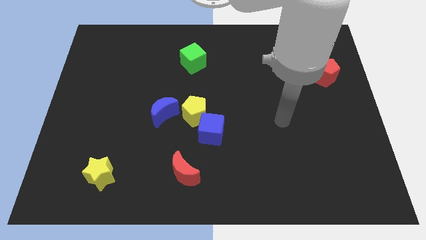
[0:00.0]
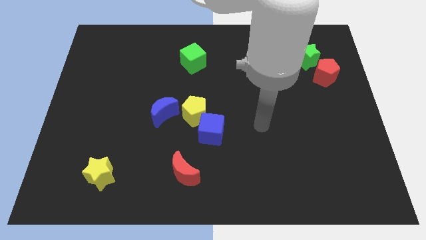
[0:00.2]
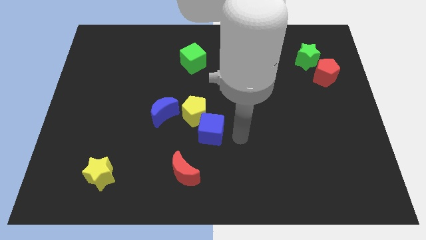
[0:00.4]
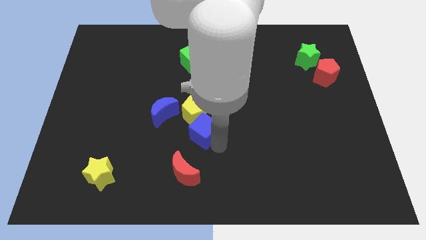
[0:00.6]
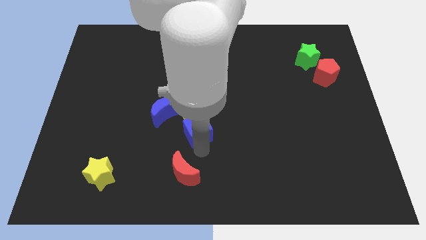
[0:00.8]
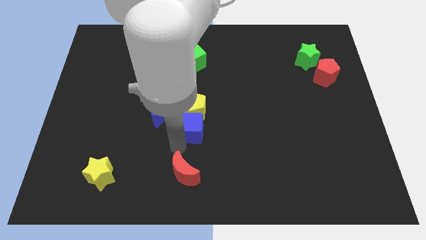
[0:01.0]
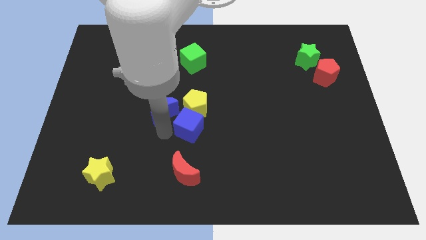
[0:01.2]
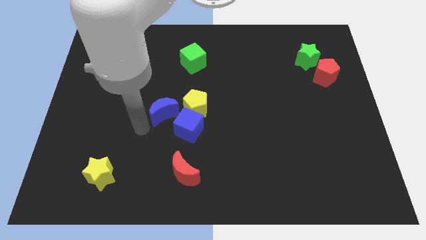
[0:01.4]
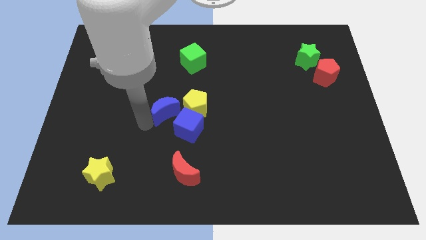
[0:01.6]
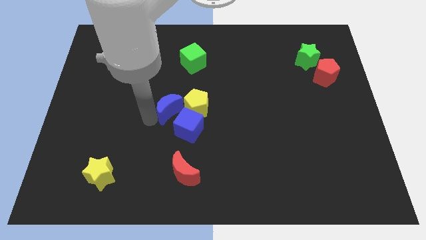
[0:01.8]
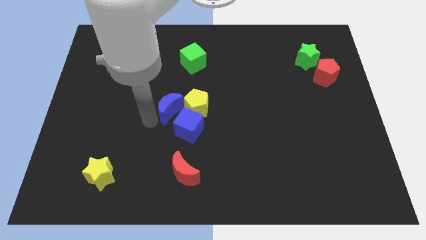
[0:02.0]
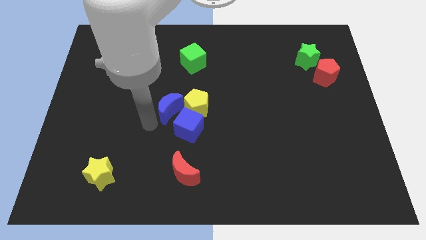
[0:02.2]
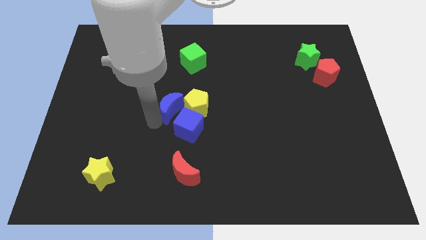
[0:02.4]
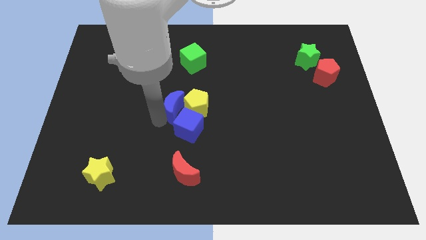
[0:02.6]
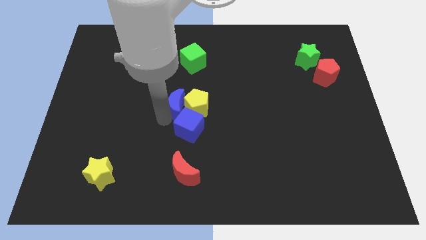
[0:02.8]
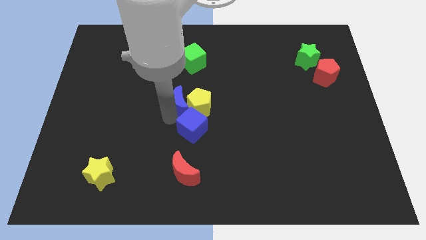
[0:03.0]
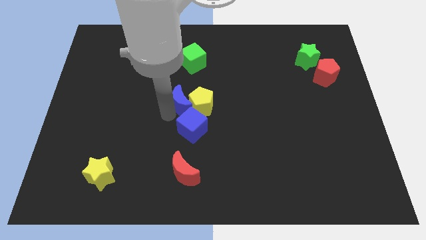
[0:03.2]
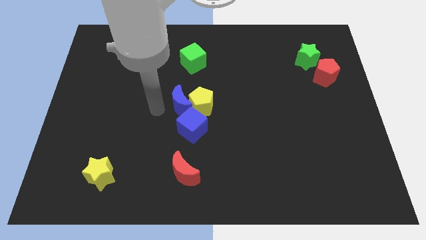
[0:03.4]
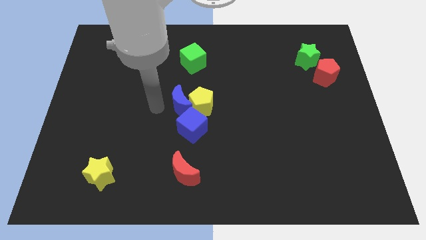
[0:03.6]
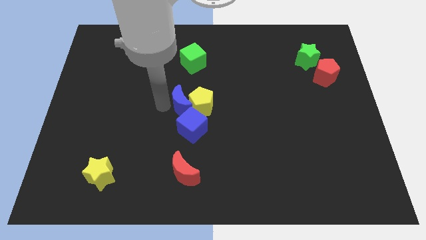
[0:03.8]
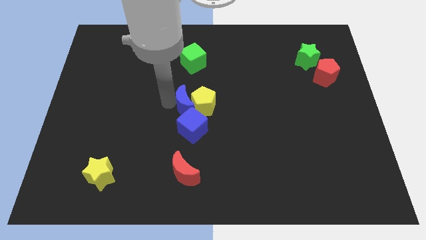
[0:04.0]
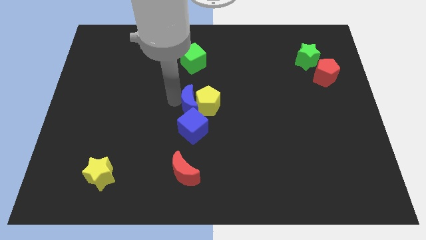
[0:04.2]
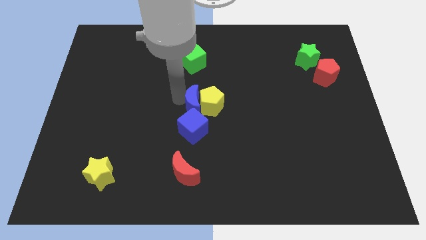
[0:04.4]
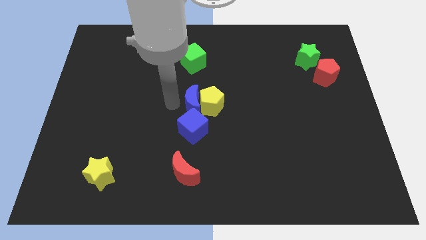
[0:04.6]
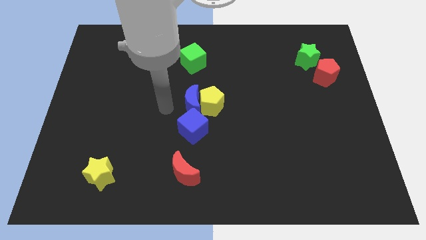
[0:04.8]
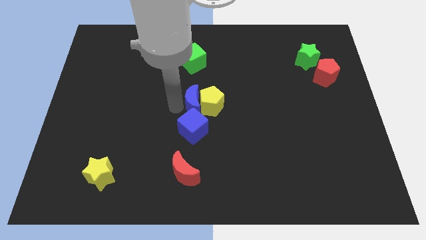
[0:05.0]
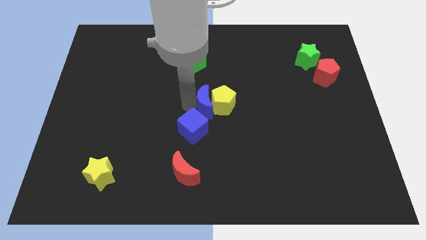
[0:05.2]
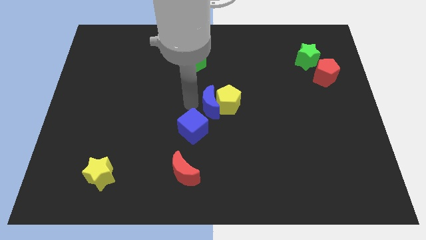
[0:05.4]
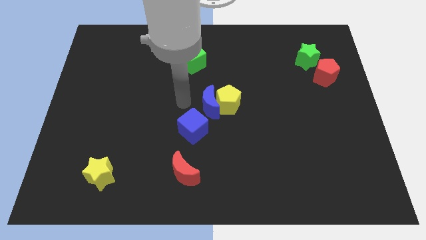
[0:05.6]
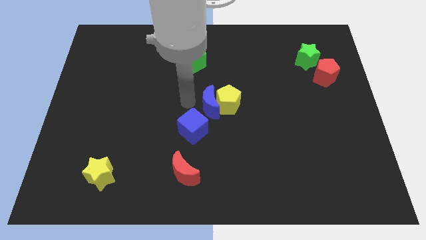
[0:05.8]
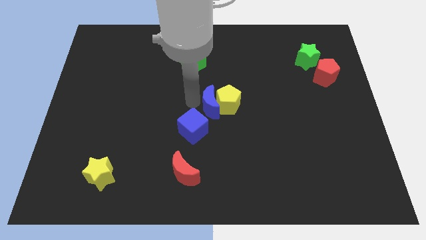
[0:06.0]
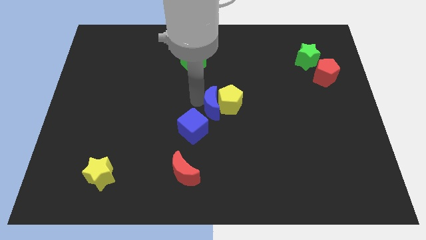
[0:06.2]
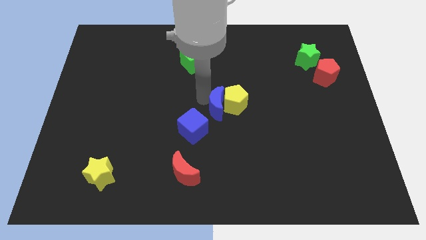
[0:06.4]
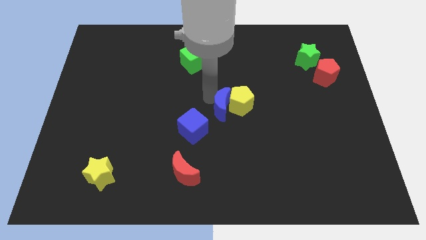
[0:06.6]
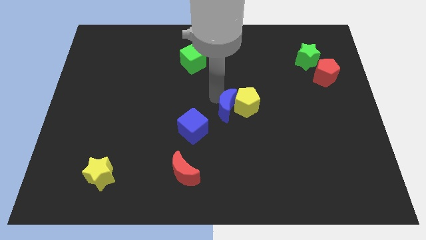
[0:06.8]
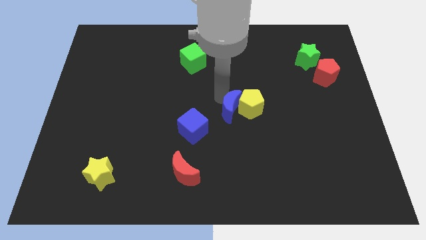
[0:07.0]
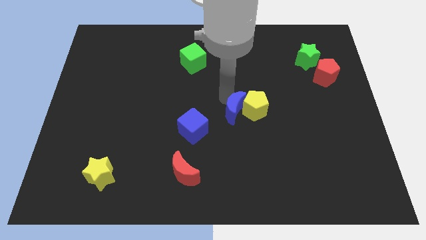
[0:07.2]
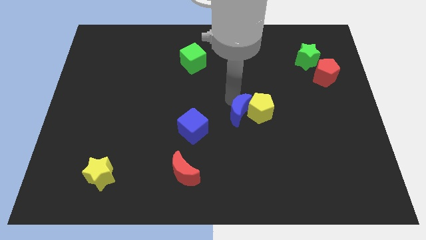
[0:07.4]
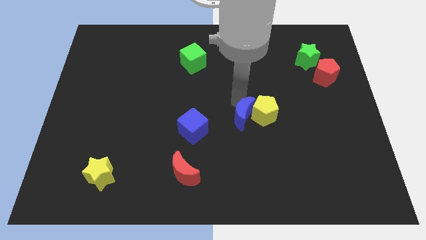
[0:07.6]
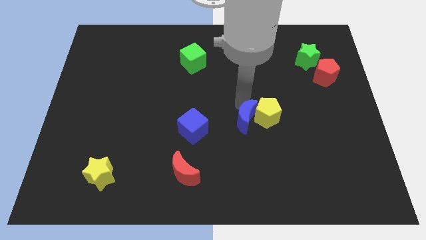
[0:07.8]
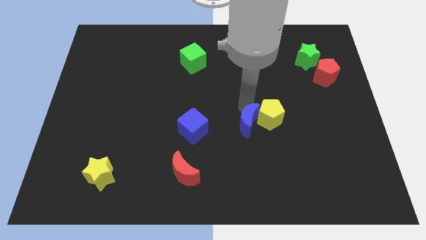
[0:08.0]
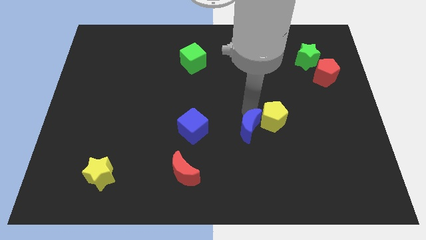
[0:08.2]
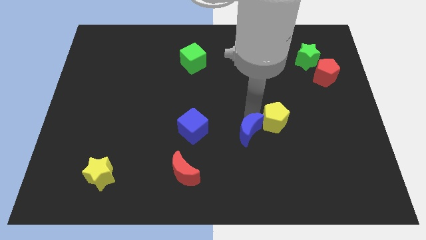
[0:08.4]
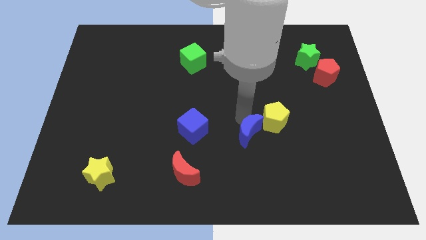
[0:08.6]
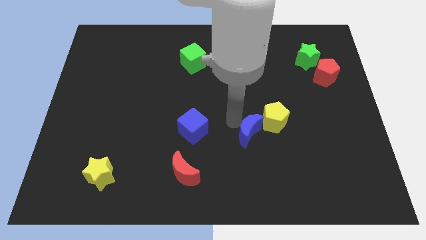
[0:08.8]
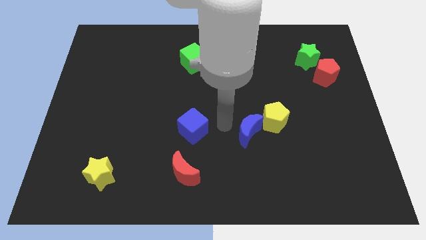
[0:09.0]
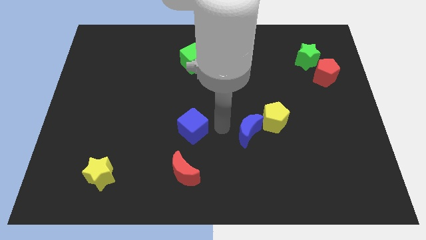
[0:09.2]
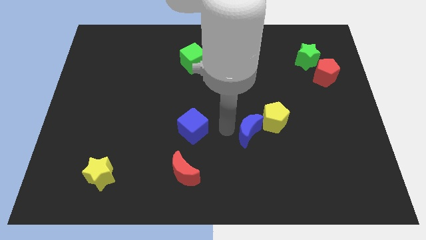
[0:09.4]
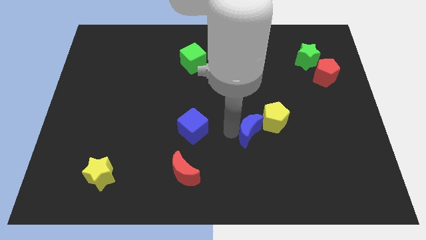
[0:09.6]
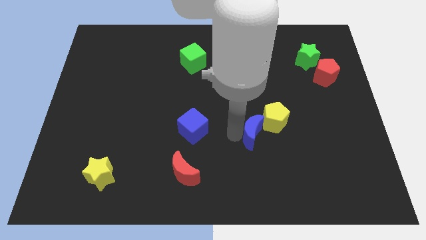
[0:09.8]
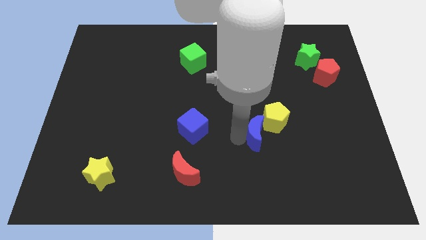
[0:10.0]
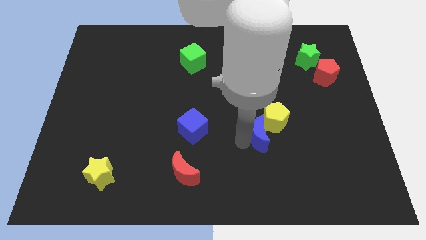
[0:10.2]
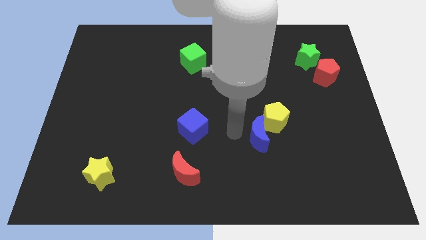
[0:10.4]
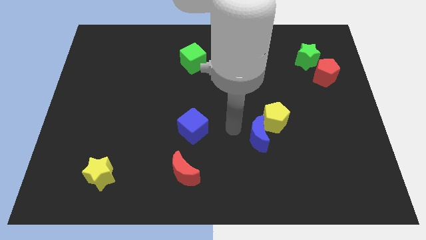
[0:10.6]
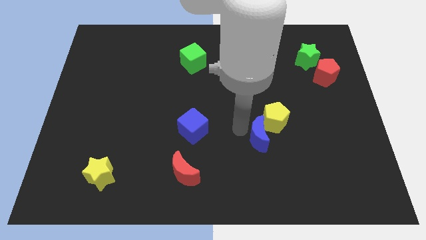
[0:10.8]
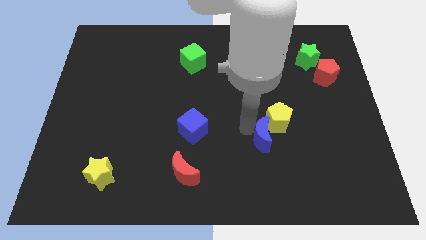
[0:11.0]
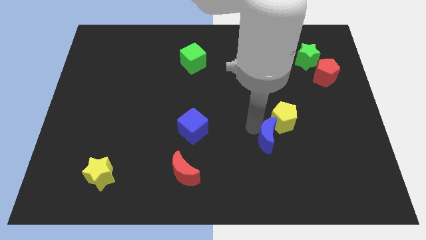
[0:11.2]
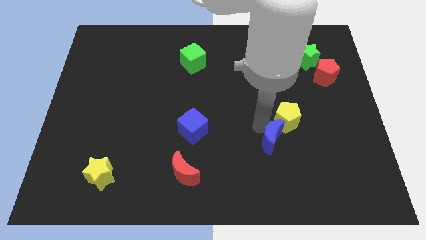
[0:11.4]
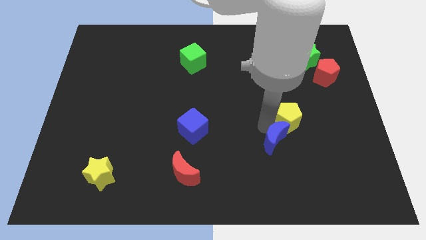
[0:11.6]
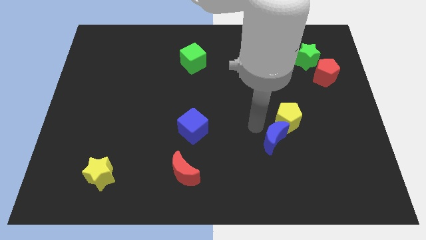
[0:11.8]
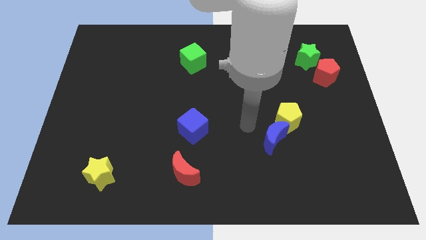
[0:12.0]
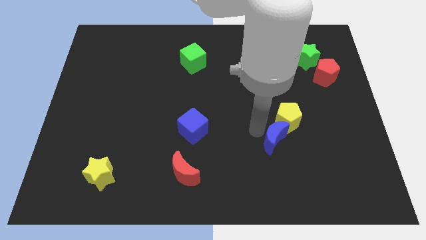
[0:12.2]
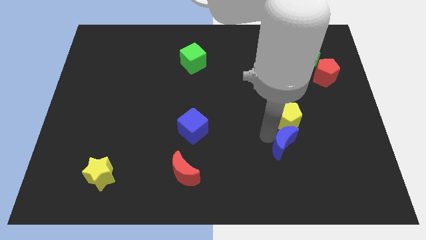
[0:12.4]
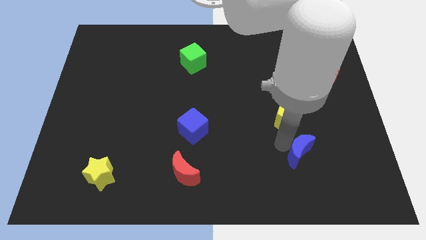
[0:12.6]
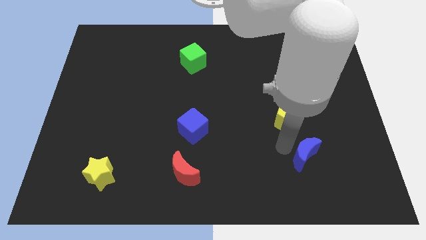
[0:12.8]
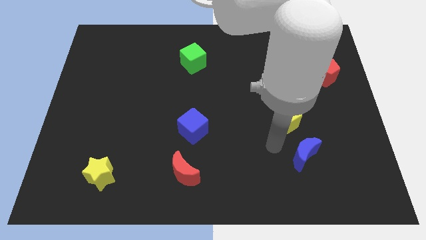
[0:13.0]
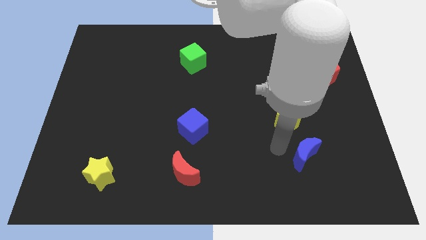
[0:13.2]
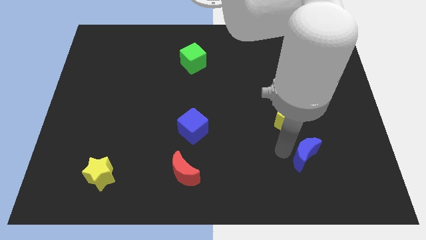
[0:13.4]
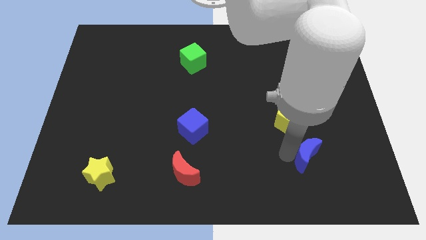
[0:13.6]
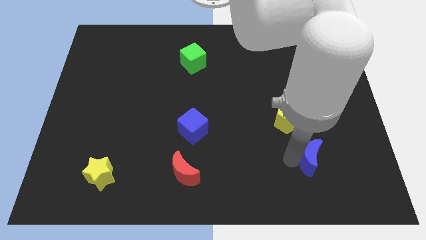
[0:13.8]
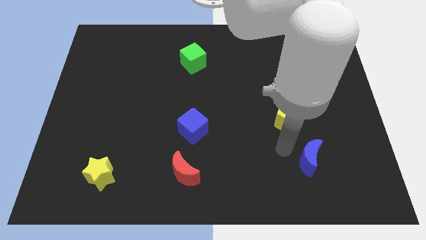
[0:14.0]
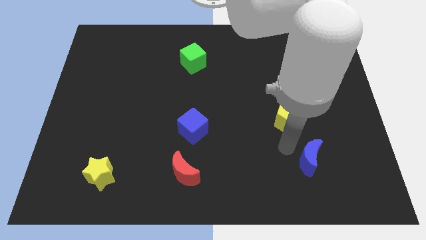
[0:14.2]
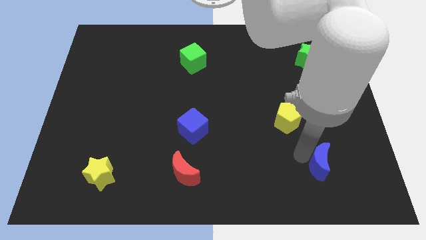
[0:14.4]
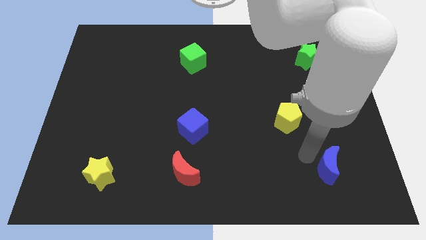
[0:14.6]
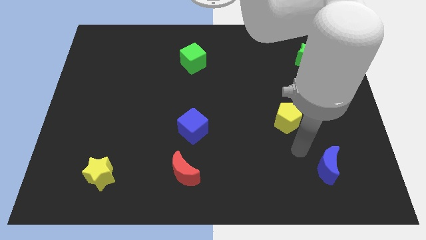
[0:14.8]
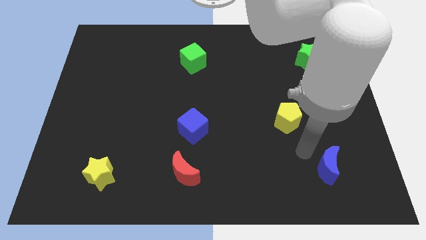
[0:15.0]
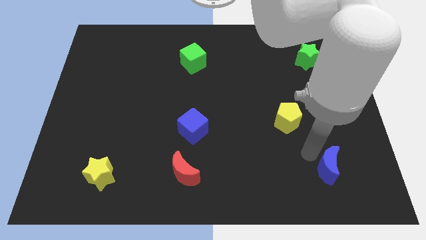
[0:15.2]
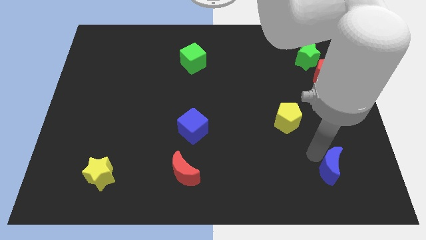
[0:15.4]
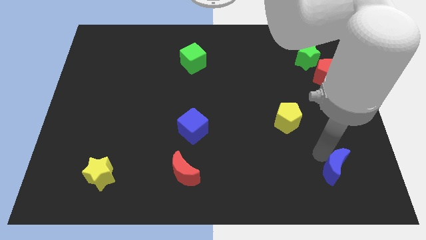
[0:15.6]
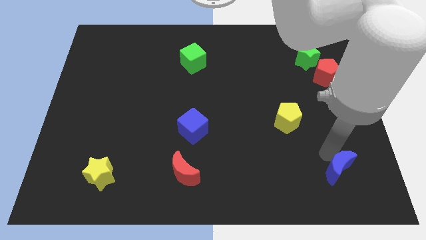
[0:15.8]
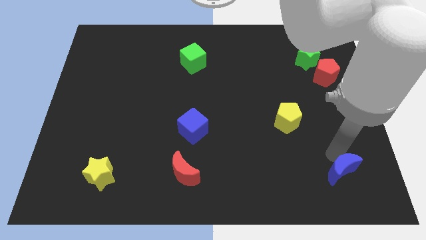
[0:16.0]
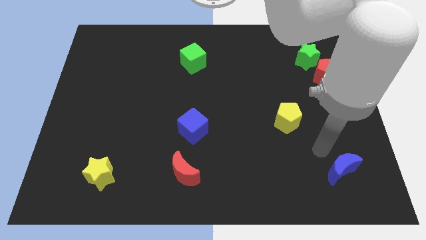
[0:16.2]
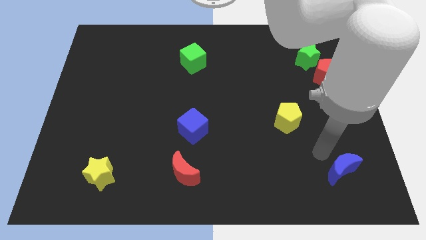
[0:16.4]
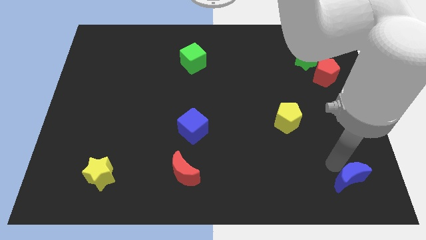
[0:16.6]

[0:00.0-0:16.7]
put the blue moon to the bottom right corner
